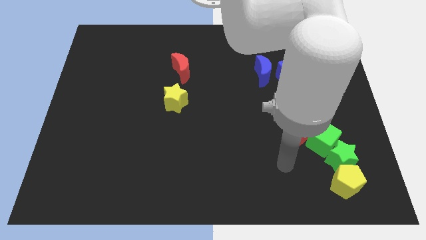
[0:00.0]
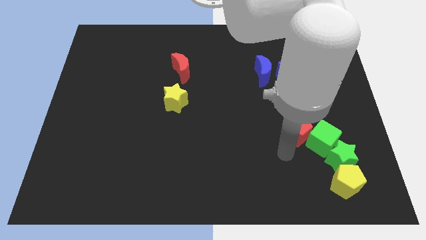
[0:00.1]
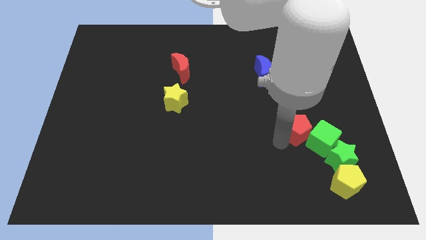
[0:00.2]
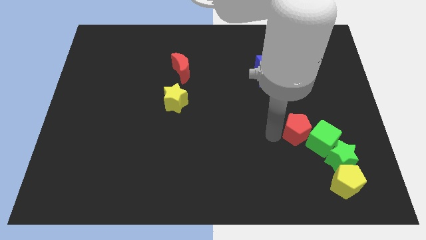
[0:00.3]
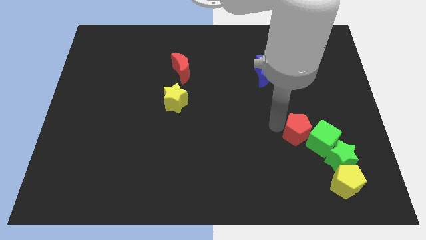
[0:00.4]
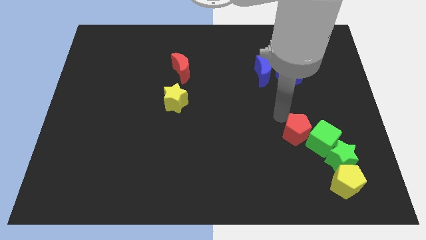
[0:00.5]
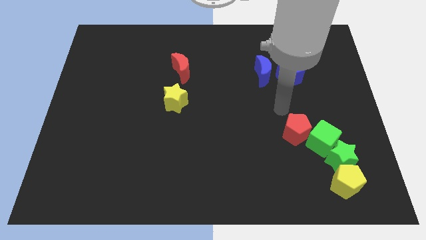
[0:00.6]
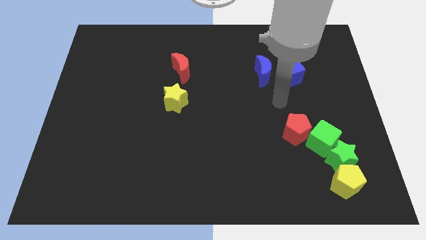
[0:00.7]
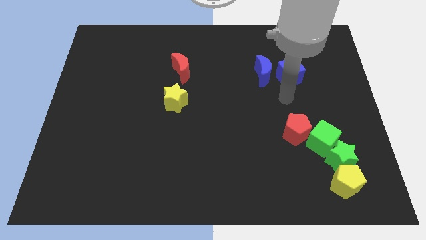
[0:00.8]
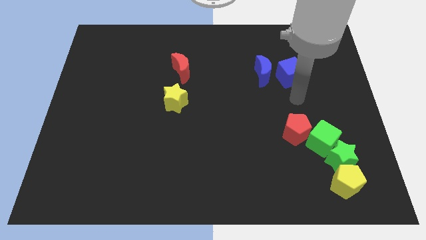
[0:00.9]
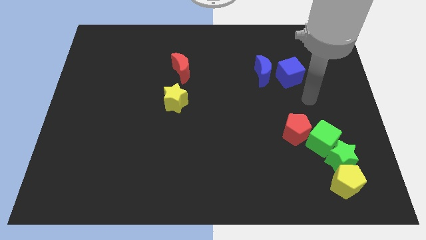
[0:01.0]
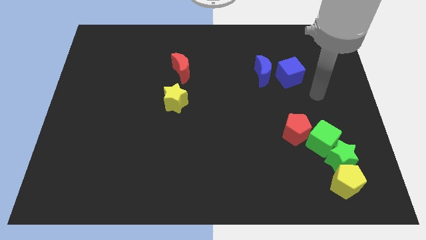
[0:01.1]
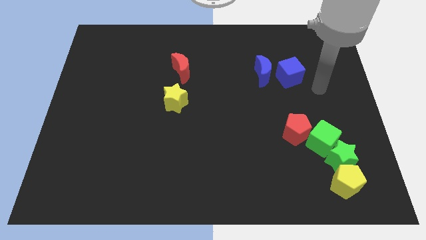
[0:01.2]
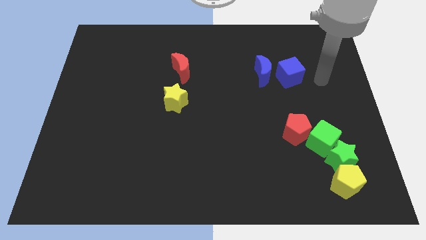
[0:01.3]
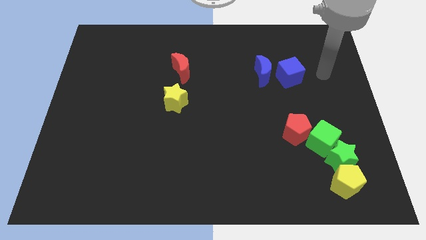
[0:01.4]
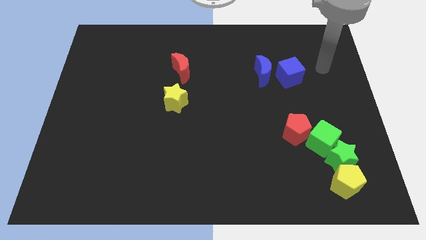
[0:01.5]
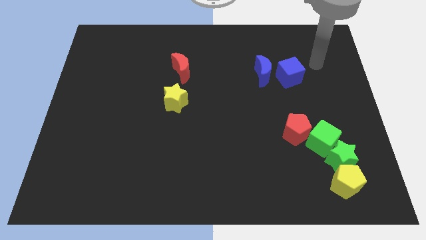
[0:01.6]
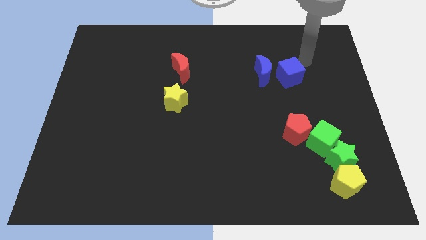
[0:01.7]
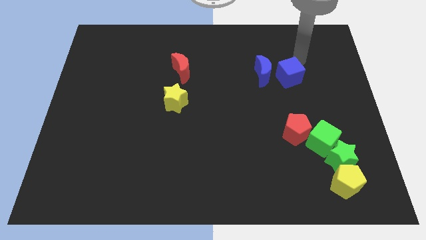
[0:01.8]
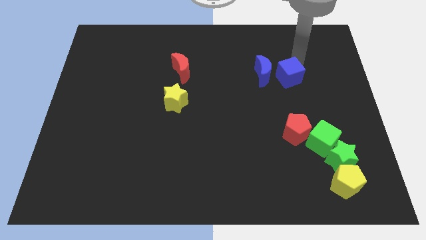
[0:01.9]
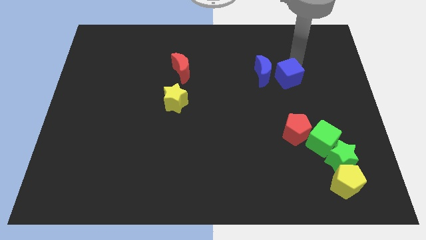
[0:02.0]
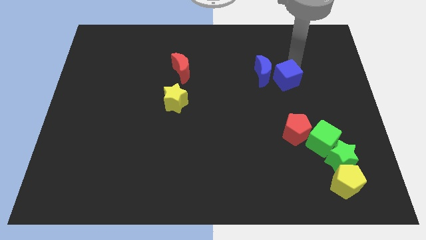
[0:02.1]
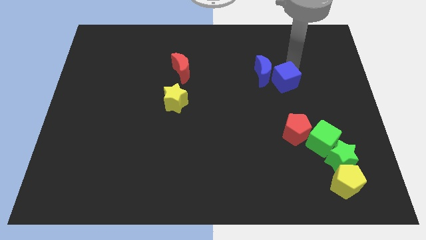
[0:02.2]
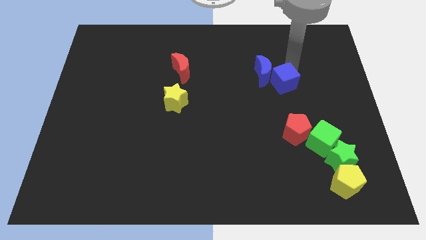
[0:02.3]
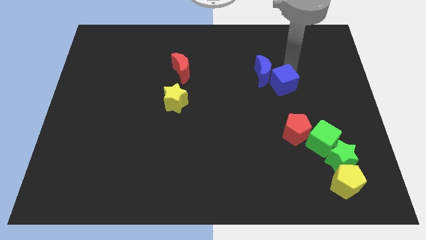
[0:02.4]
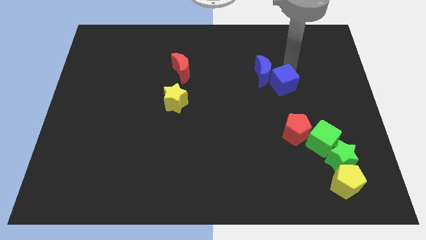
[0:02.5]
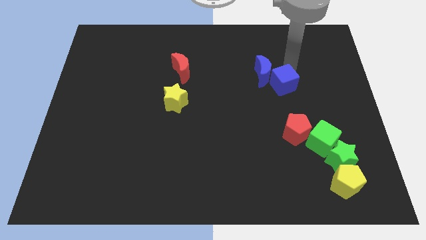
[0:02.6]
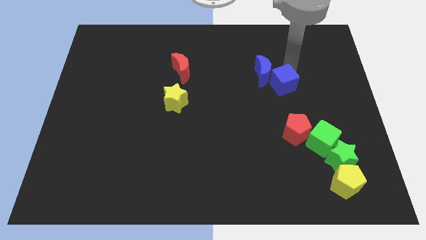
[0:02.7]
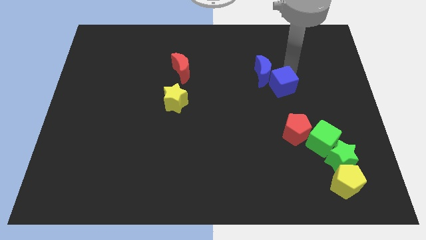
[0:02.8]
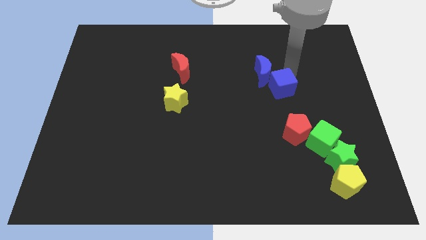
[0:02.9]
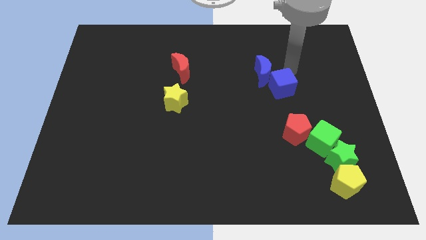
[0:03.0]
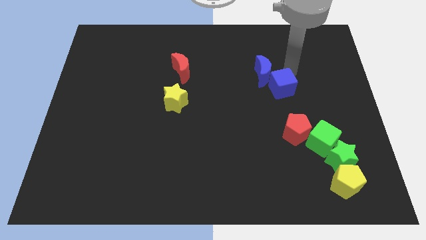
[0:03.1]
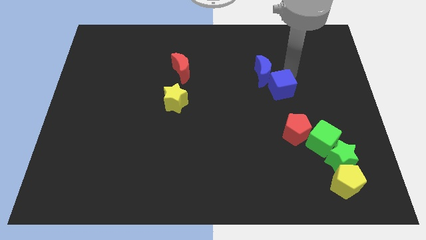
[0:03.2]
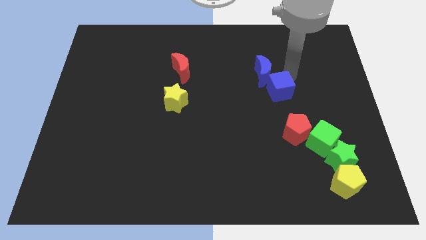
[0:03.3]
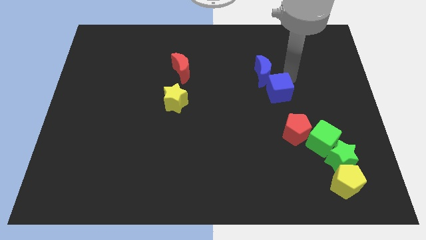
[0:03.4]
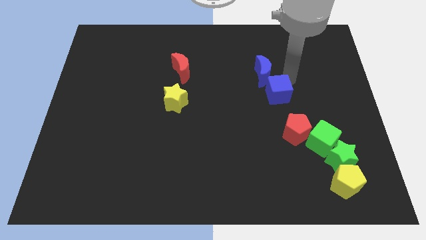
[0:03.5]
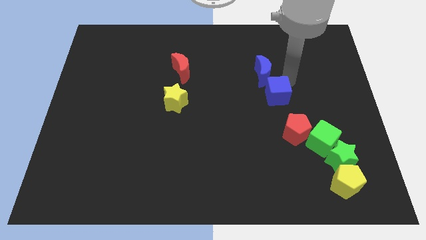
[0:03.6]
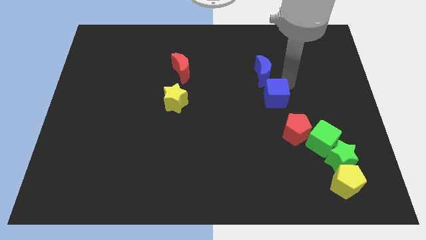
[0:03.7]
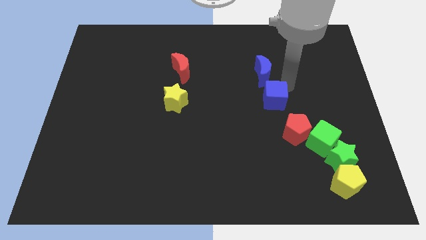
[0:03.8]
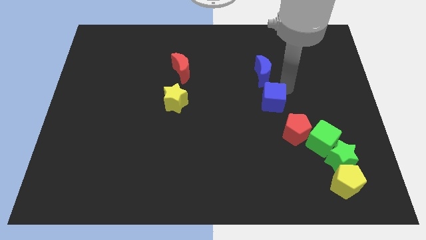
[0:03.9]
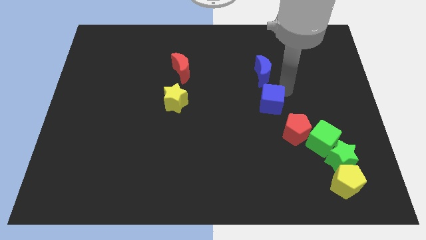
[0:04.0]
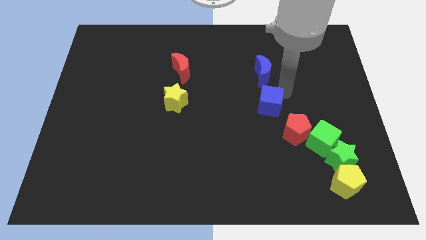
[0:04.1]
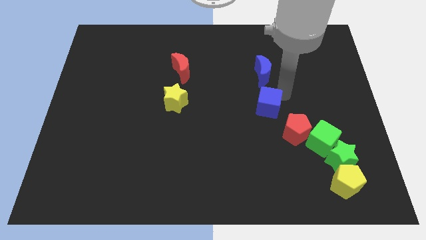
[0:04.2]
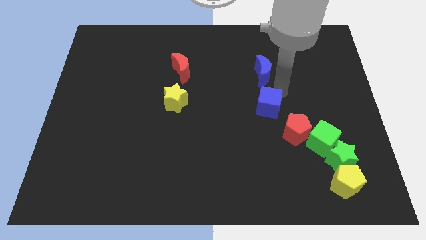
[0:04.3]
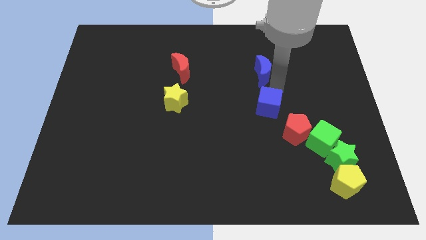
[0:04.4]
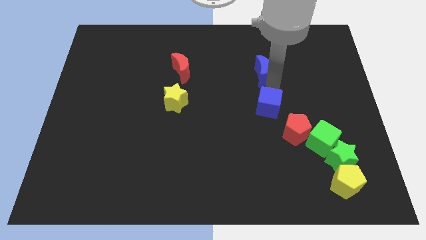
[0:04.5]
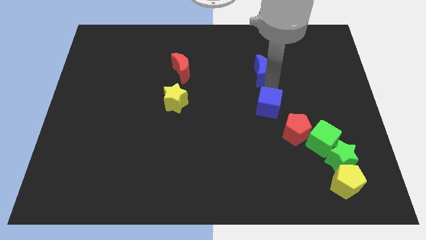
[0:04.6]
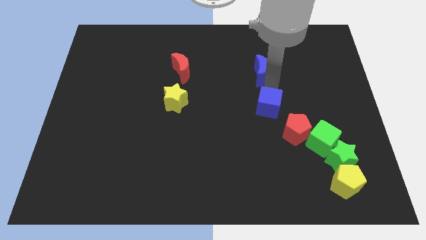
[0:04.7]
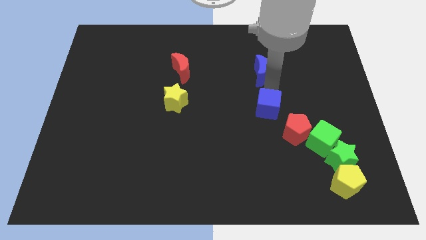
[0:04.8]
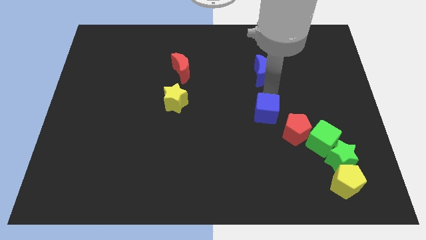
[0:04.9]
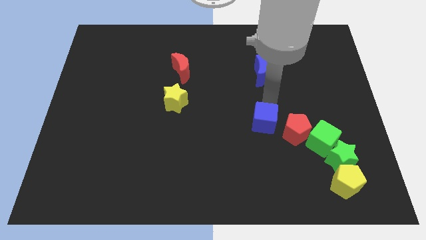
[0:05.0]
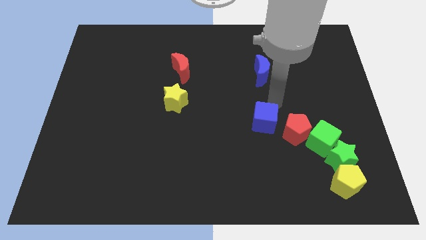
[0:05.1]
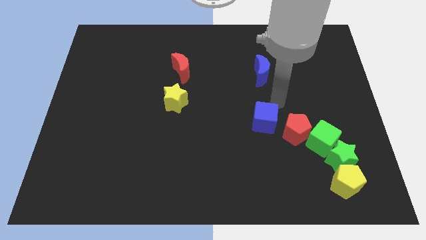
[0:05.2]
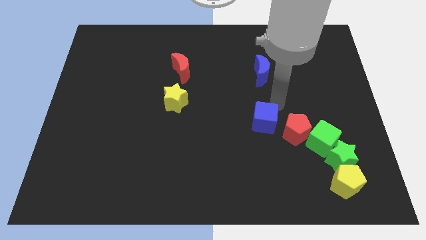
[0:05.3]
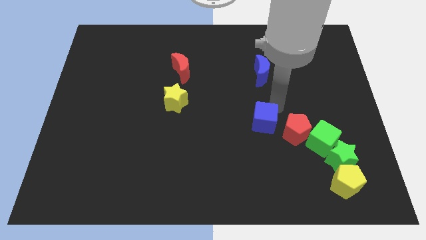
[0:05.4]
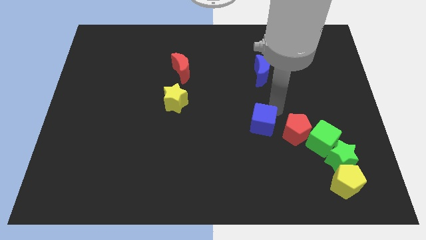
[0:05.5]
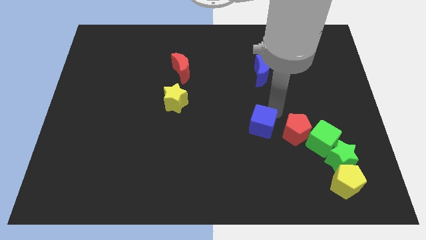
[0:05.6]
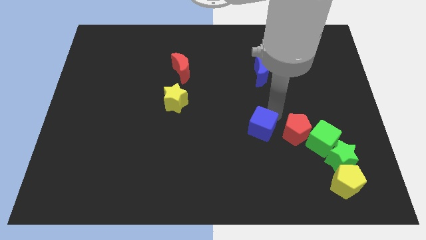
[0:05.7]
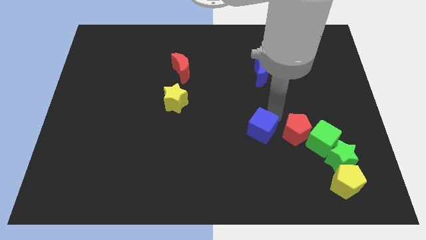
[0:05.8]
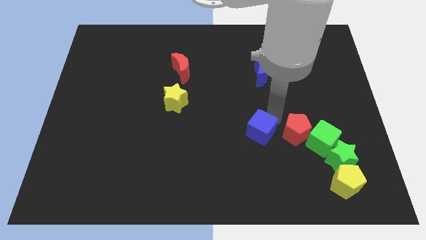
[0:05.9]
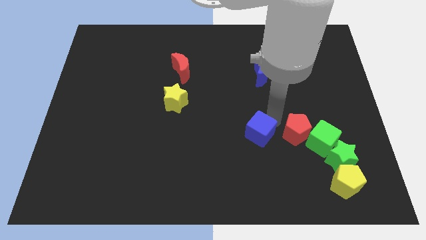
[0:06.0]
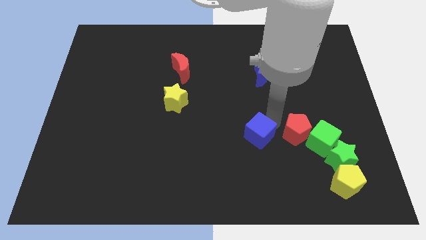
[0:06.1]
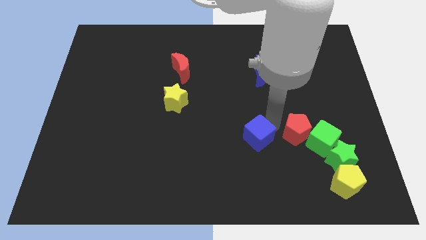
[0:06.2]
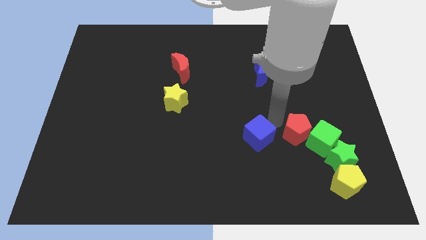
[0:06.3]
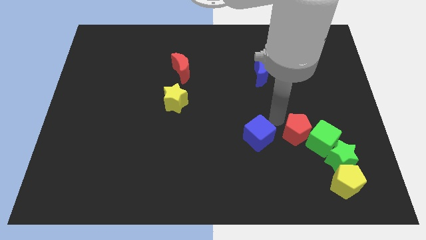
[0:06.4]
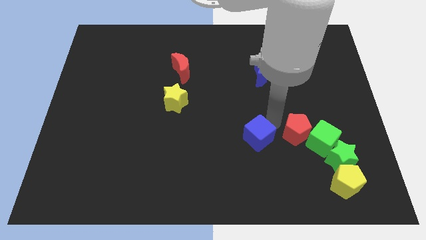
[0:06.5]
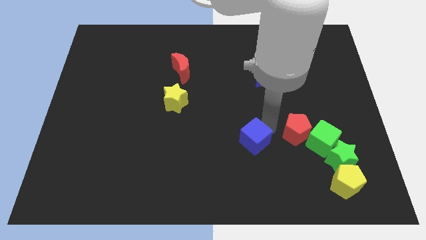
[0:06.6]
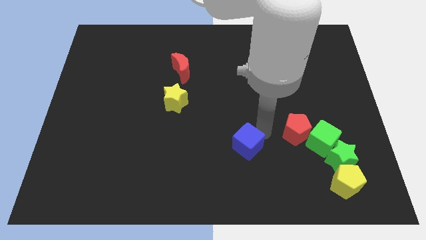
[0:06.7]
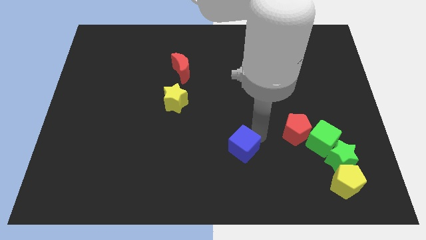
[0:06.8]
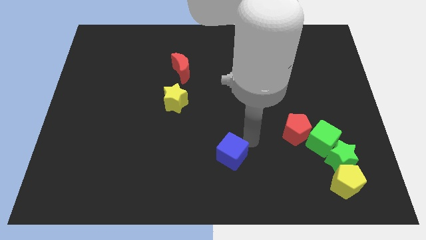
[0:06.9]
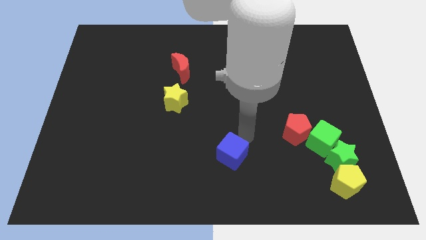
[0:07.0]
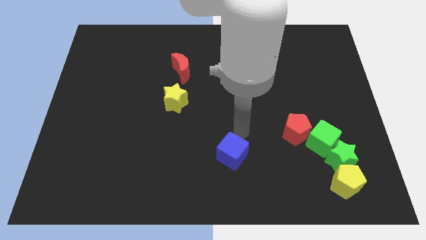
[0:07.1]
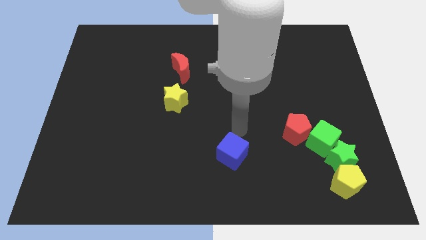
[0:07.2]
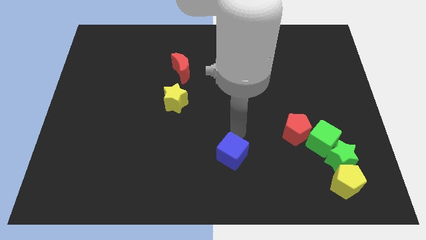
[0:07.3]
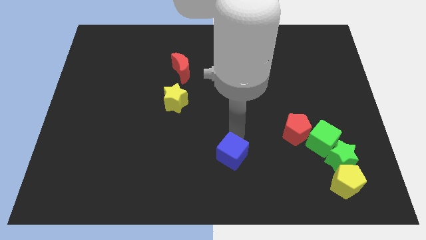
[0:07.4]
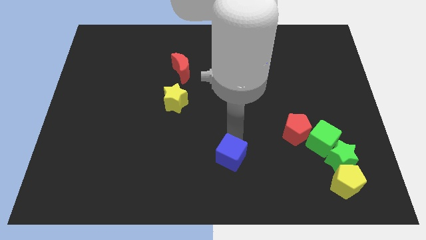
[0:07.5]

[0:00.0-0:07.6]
put the blue cube to the bottom side
